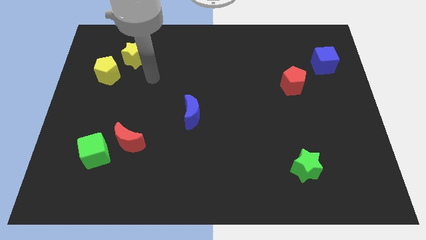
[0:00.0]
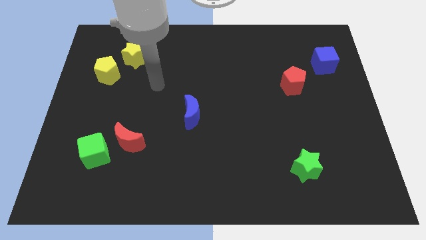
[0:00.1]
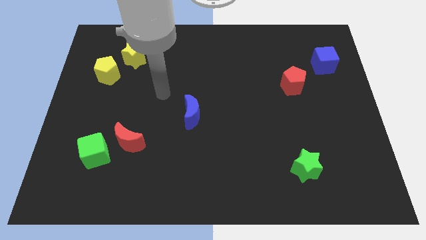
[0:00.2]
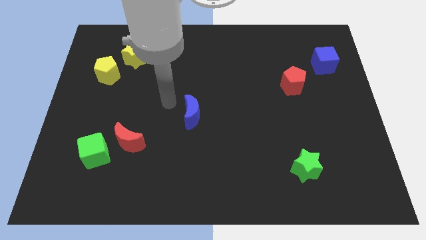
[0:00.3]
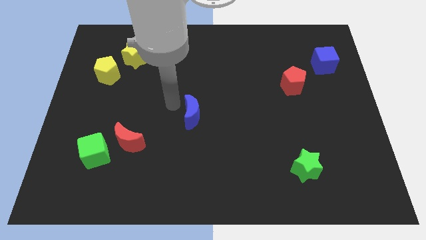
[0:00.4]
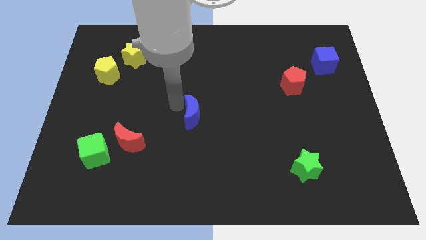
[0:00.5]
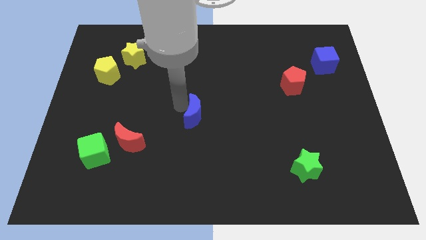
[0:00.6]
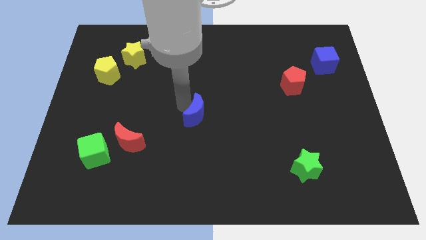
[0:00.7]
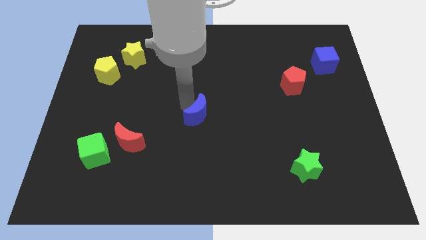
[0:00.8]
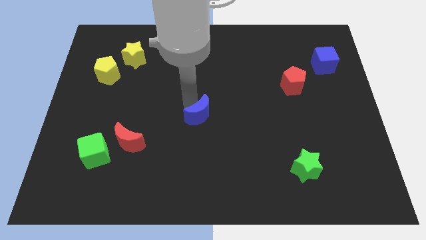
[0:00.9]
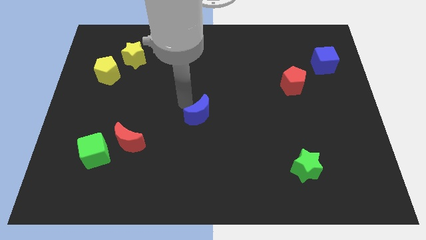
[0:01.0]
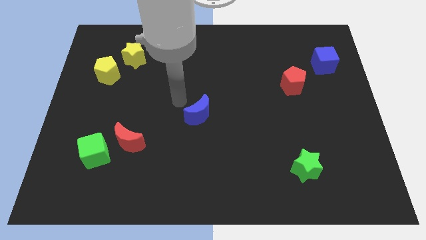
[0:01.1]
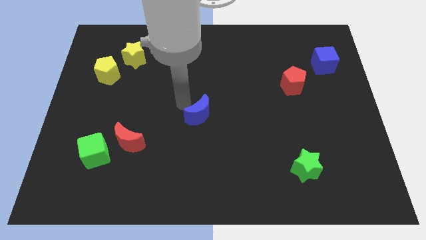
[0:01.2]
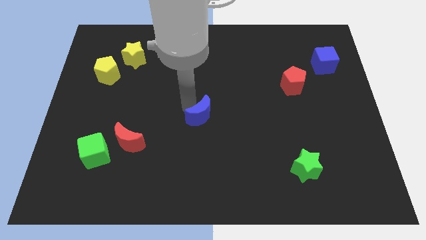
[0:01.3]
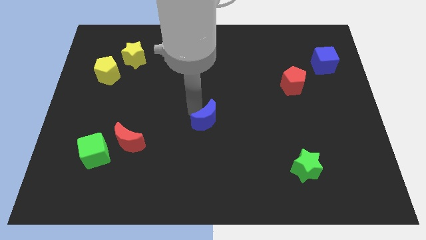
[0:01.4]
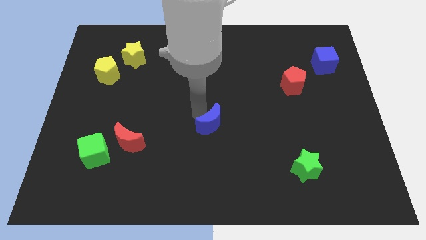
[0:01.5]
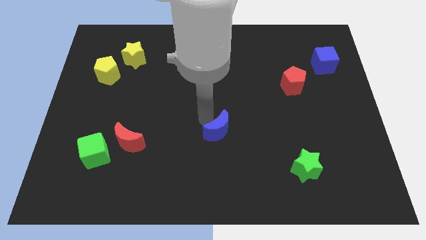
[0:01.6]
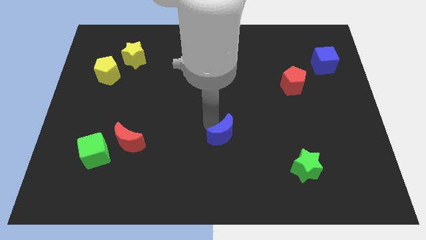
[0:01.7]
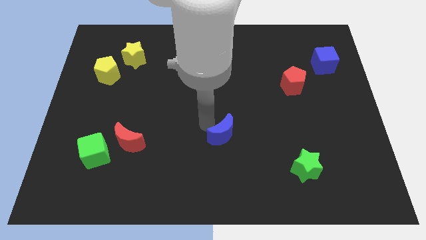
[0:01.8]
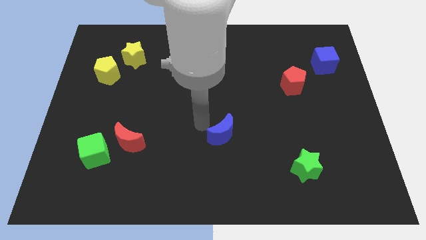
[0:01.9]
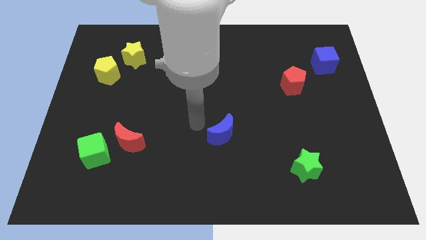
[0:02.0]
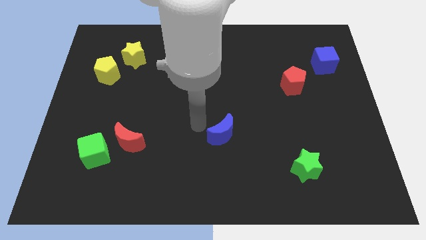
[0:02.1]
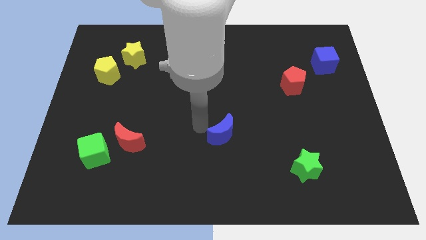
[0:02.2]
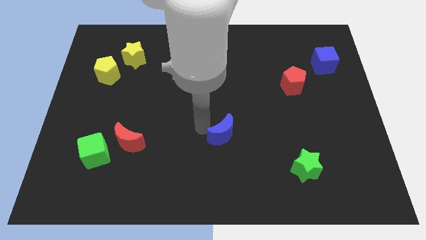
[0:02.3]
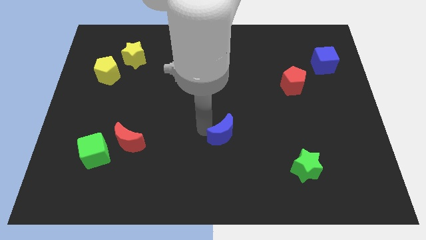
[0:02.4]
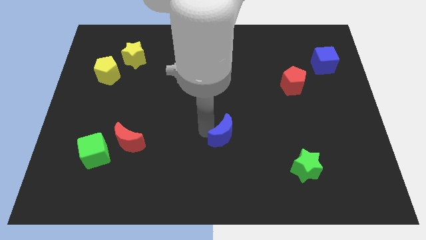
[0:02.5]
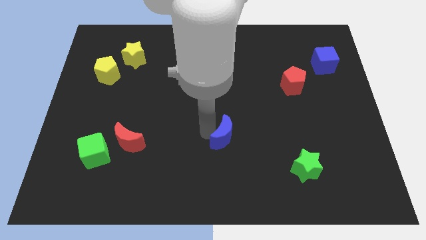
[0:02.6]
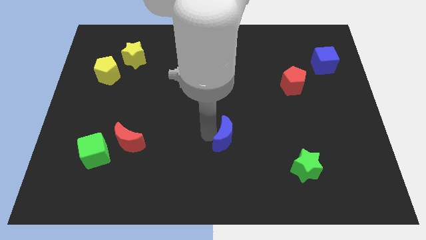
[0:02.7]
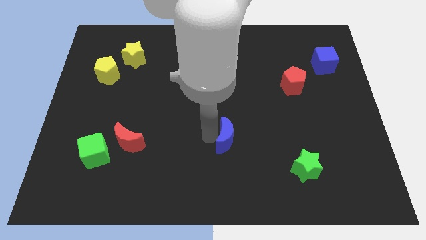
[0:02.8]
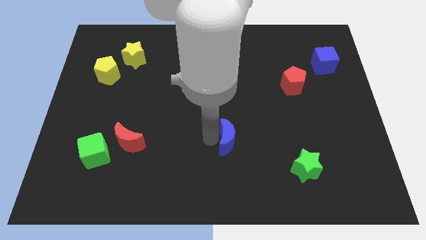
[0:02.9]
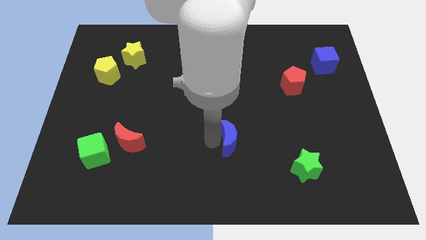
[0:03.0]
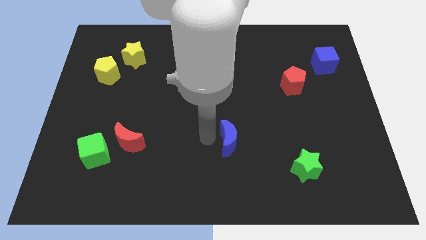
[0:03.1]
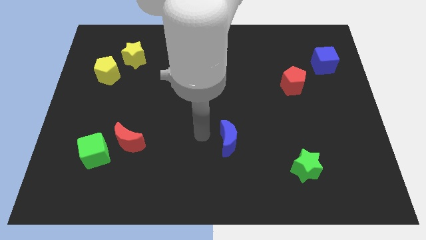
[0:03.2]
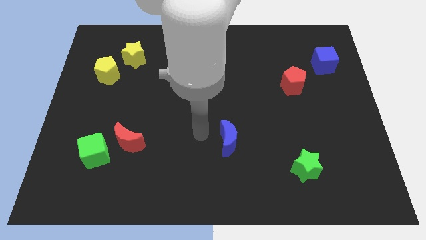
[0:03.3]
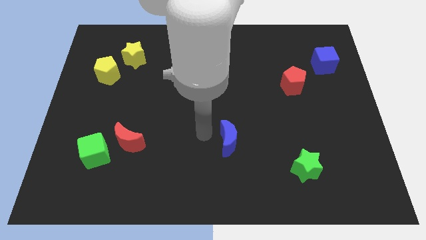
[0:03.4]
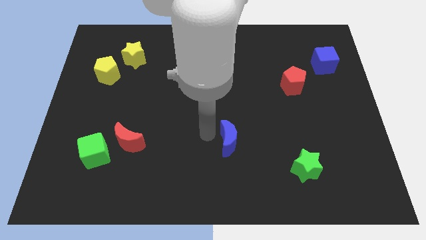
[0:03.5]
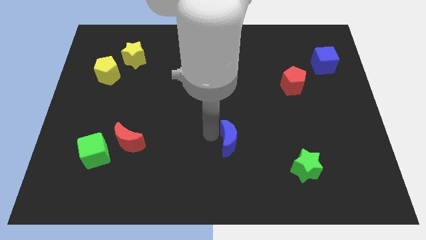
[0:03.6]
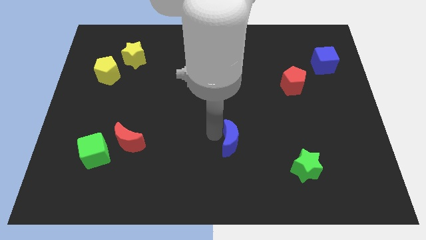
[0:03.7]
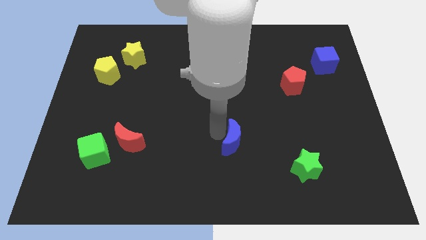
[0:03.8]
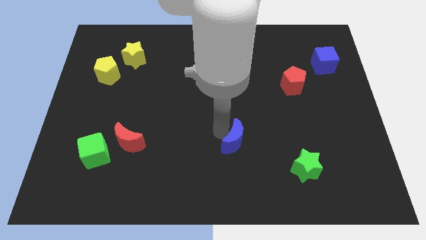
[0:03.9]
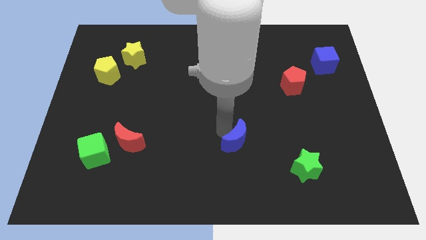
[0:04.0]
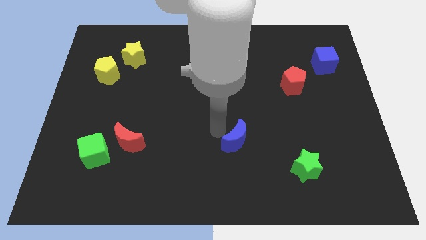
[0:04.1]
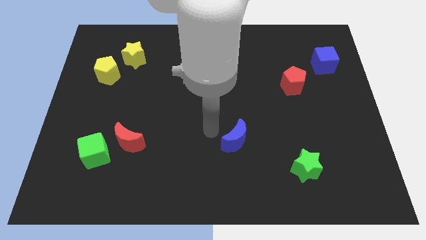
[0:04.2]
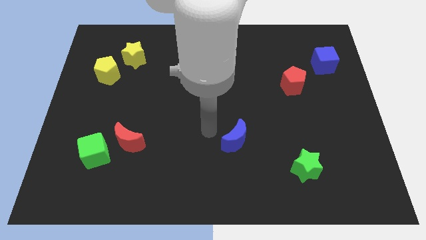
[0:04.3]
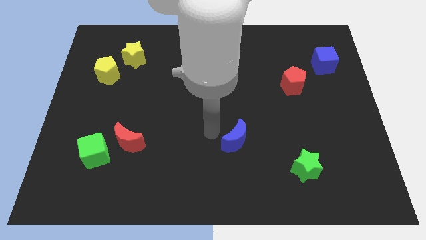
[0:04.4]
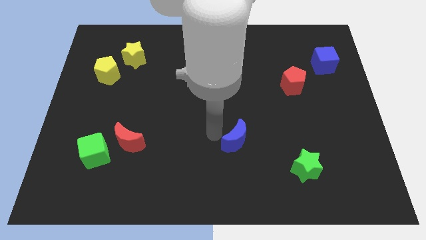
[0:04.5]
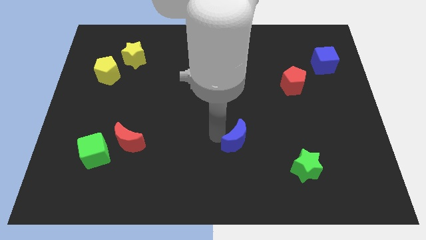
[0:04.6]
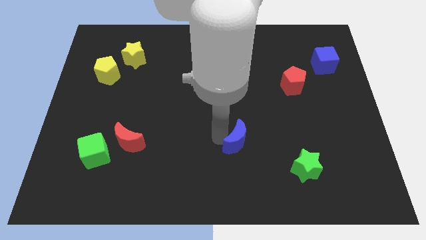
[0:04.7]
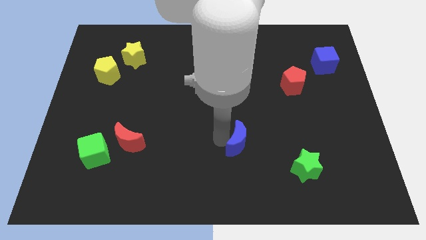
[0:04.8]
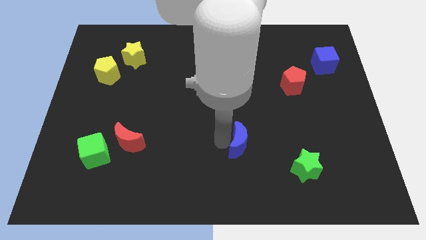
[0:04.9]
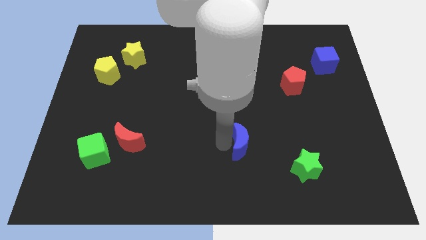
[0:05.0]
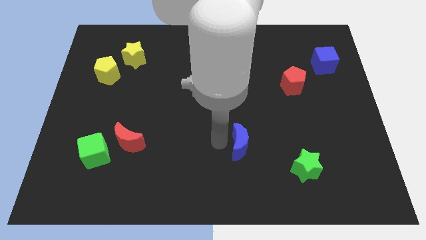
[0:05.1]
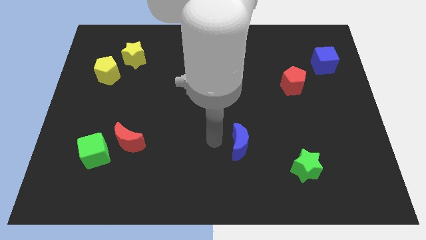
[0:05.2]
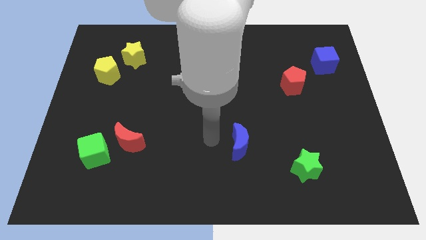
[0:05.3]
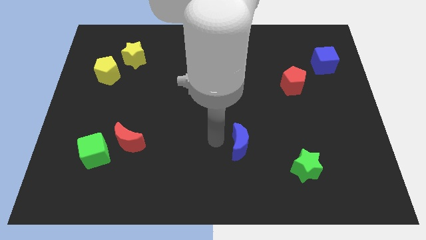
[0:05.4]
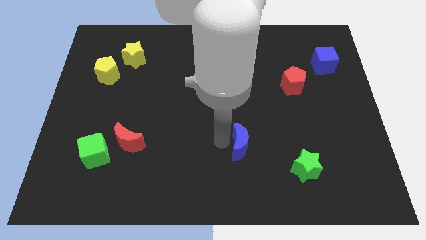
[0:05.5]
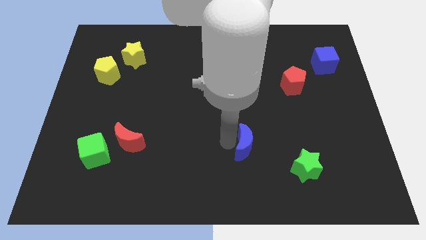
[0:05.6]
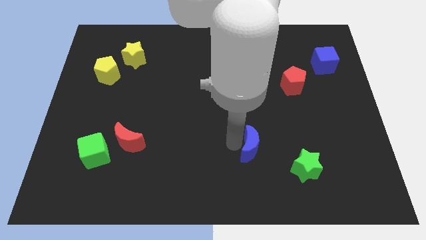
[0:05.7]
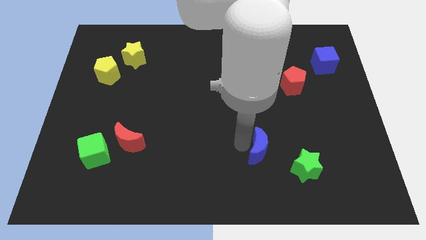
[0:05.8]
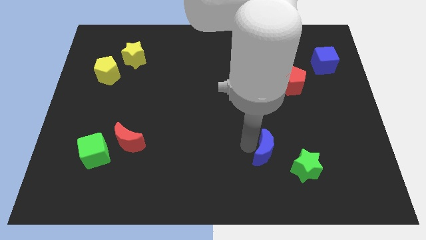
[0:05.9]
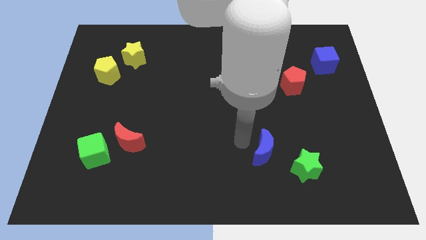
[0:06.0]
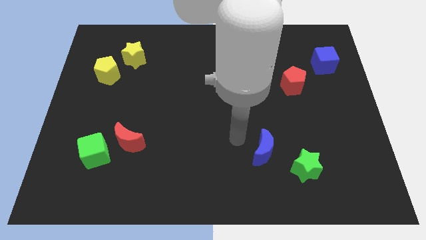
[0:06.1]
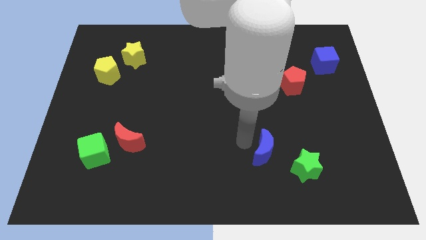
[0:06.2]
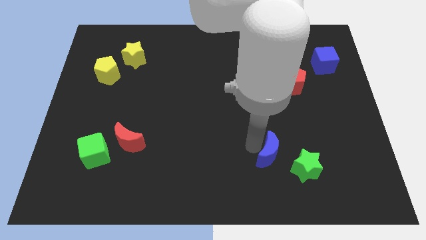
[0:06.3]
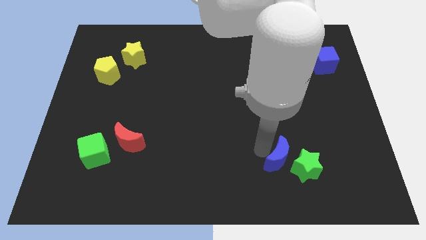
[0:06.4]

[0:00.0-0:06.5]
slide the blue moon close to the green star

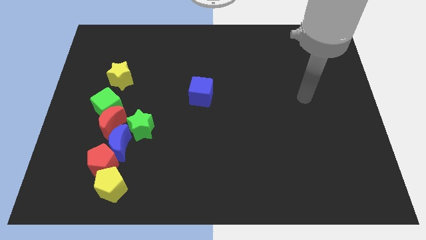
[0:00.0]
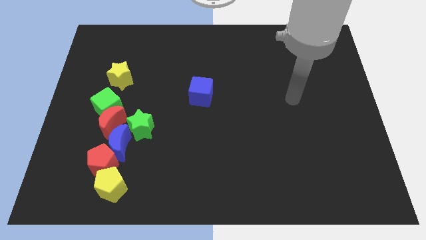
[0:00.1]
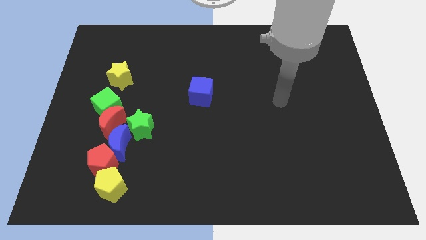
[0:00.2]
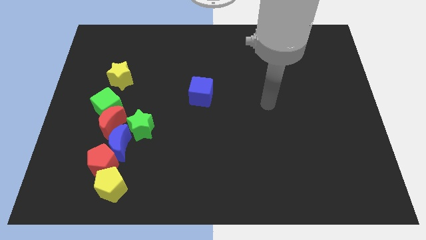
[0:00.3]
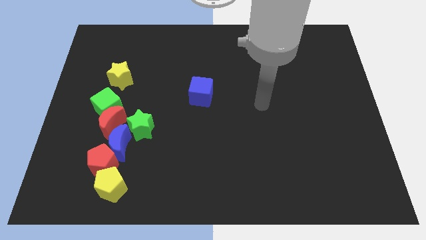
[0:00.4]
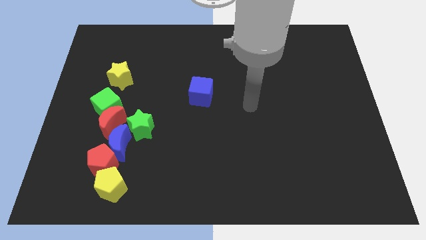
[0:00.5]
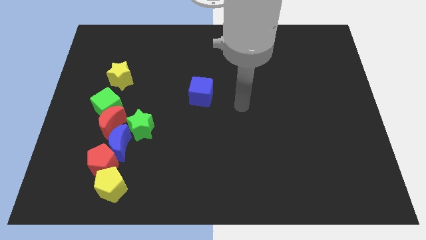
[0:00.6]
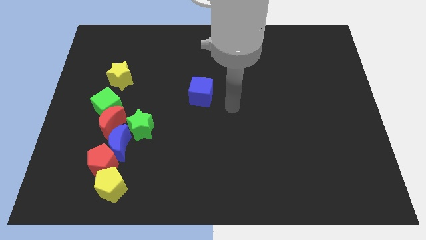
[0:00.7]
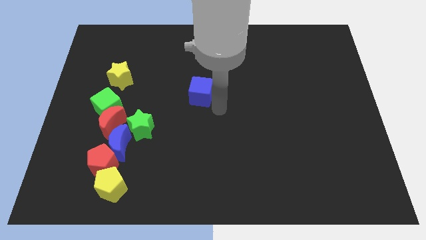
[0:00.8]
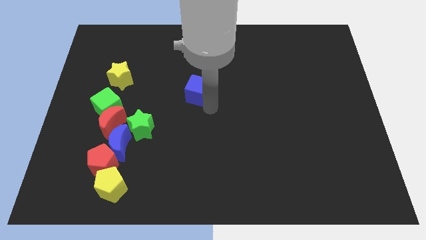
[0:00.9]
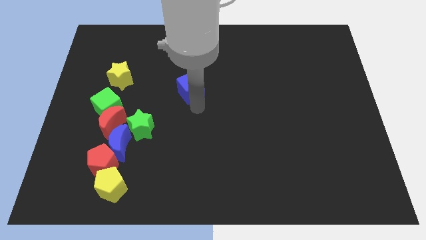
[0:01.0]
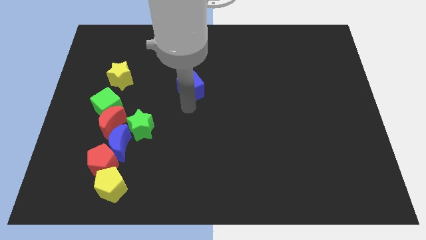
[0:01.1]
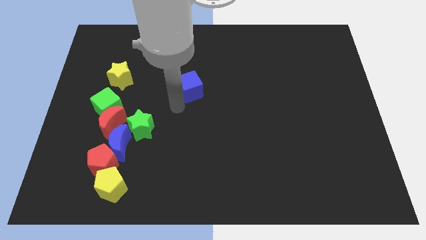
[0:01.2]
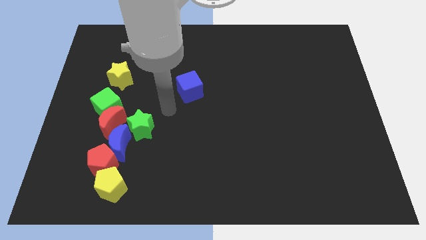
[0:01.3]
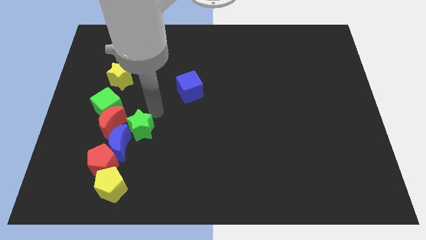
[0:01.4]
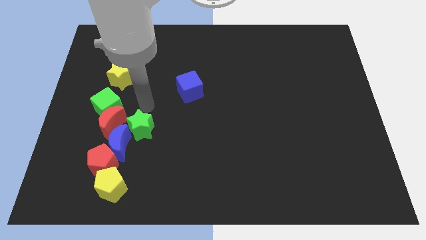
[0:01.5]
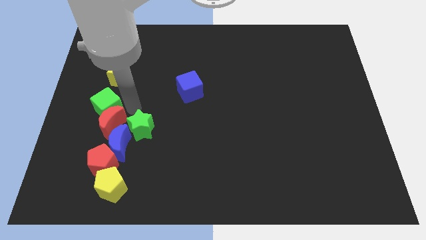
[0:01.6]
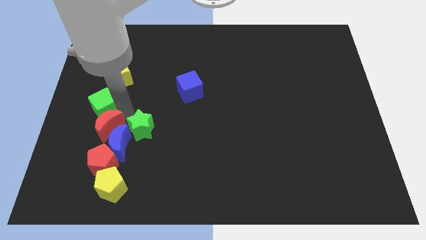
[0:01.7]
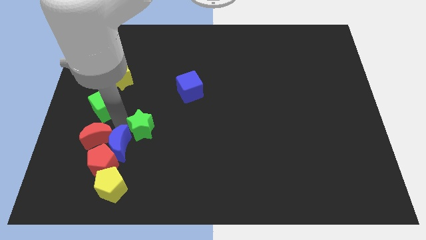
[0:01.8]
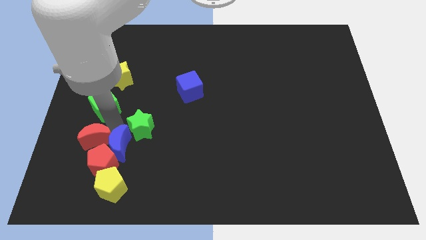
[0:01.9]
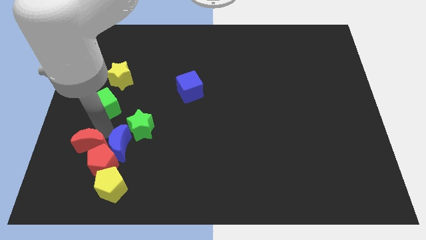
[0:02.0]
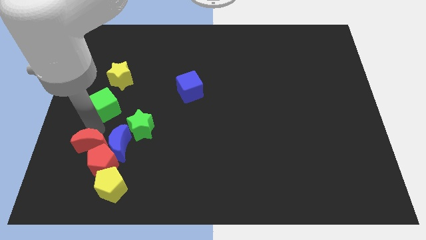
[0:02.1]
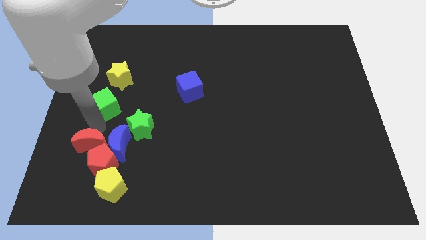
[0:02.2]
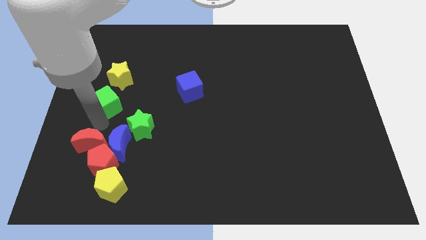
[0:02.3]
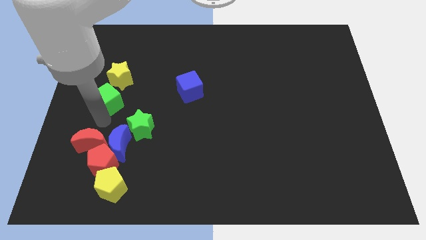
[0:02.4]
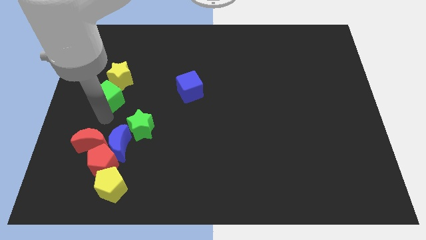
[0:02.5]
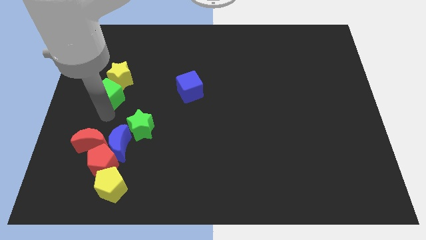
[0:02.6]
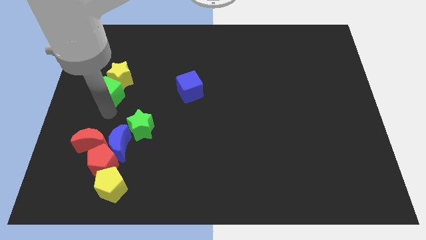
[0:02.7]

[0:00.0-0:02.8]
push the green cube to the yellow star
